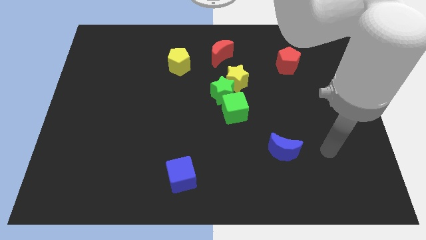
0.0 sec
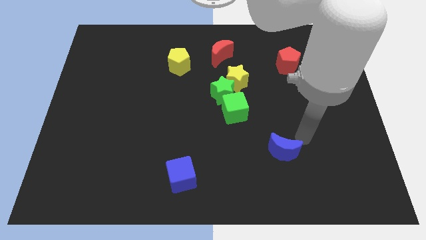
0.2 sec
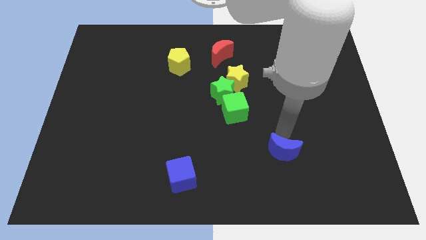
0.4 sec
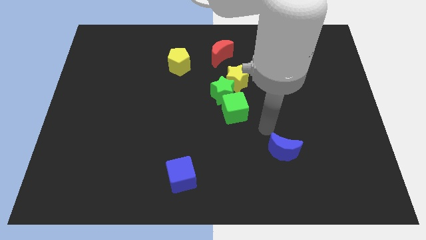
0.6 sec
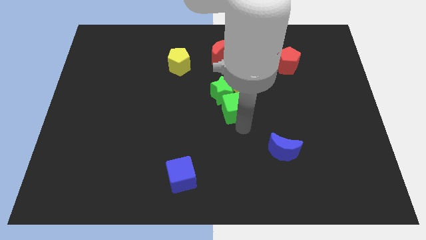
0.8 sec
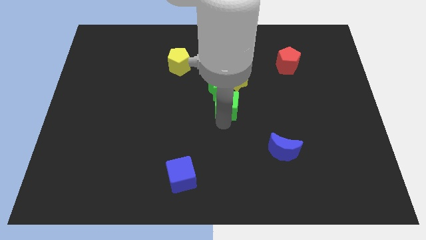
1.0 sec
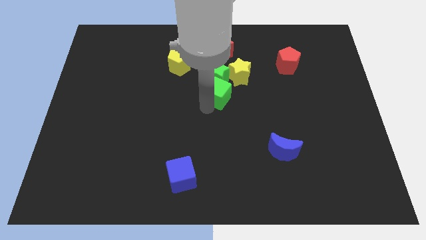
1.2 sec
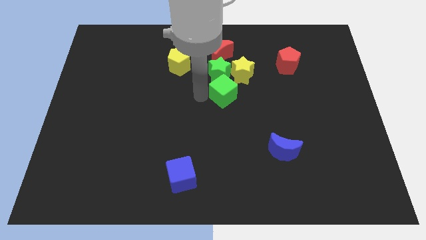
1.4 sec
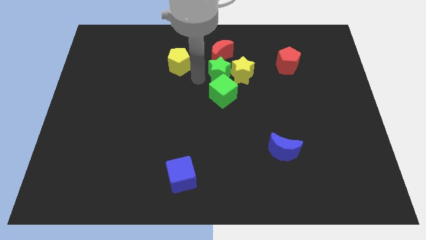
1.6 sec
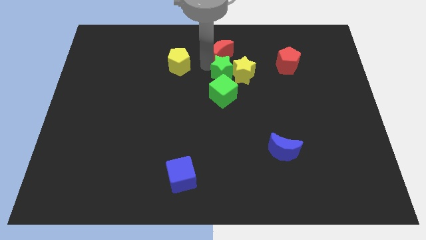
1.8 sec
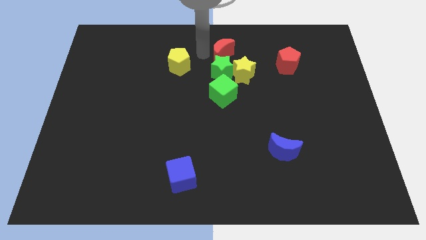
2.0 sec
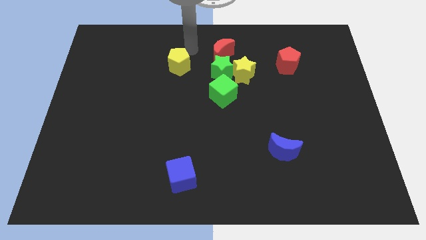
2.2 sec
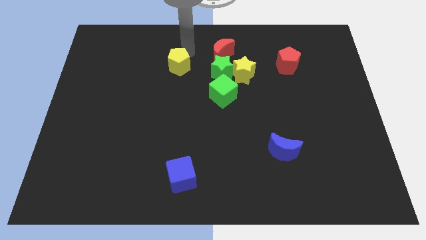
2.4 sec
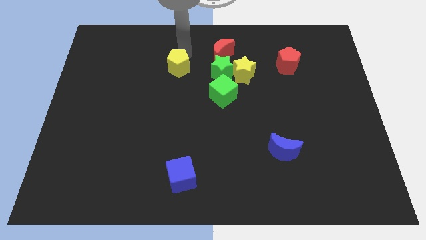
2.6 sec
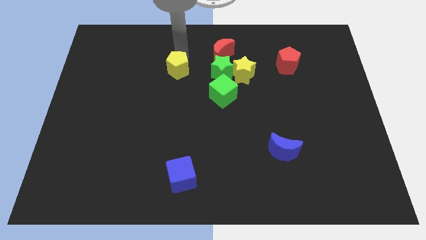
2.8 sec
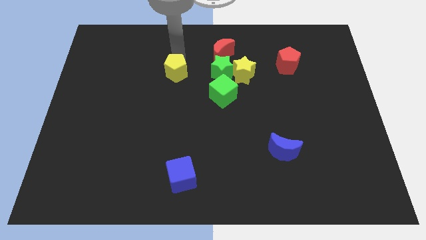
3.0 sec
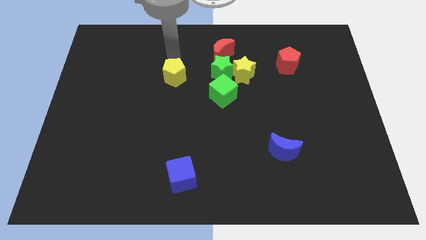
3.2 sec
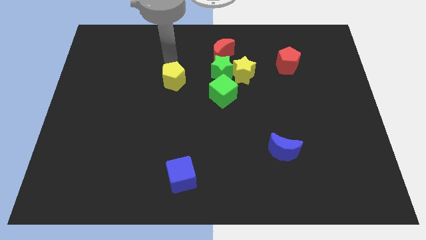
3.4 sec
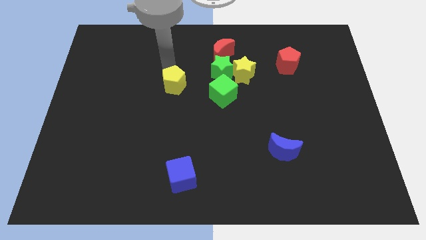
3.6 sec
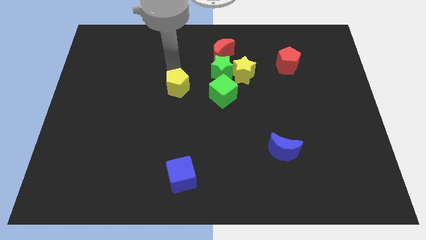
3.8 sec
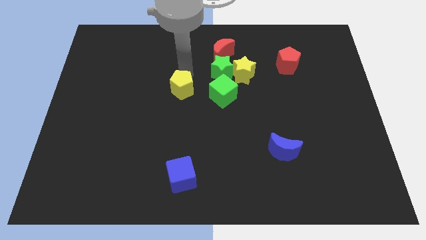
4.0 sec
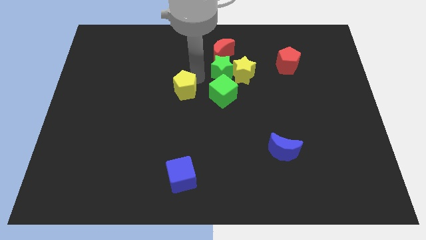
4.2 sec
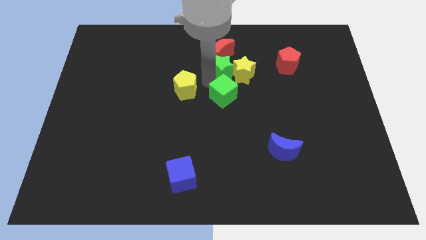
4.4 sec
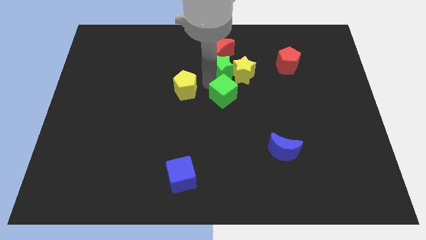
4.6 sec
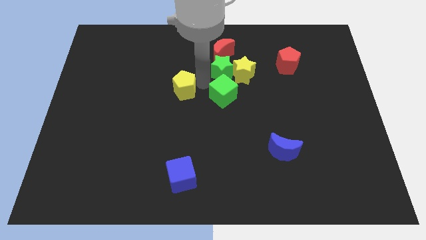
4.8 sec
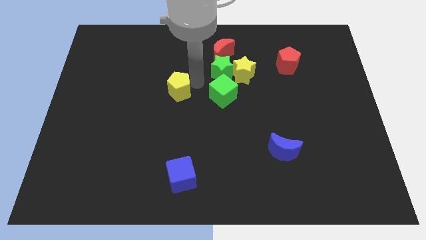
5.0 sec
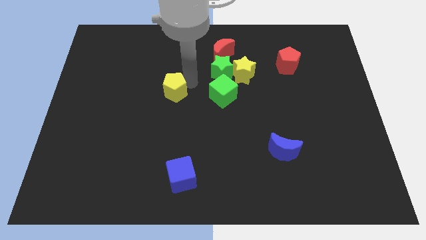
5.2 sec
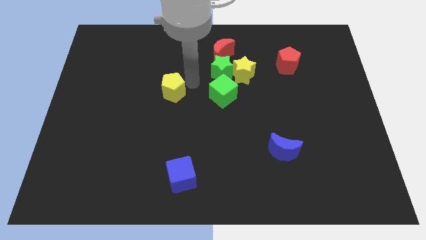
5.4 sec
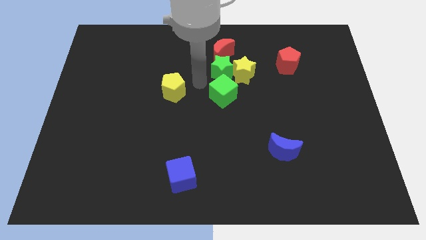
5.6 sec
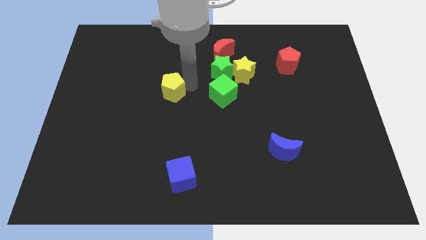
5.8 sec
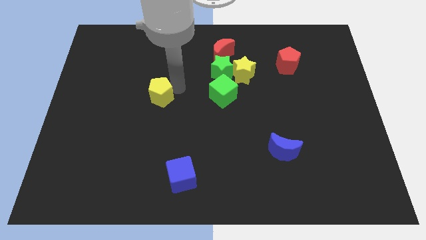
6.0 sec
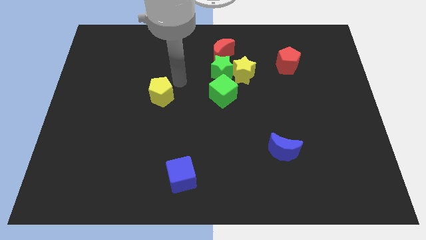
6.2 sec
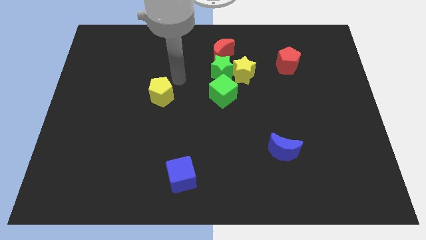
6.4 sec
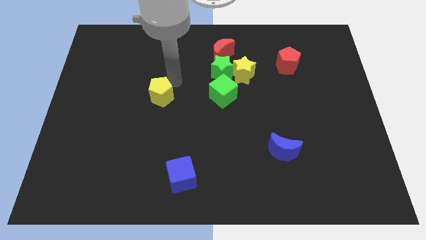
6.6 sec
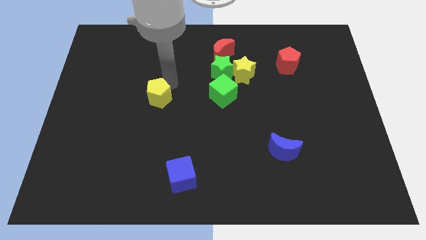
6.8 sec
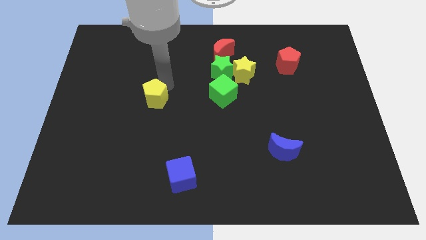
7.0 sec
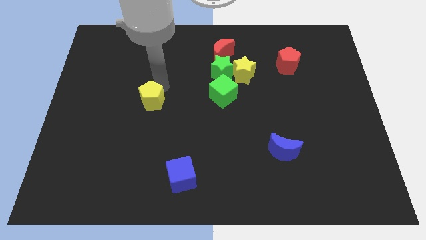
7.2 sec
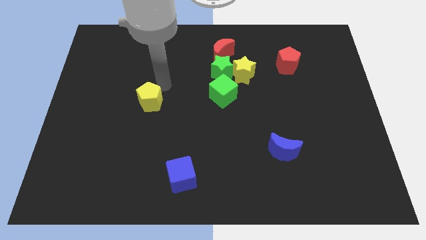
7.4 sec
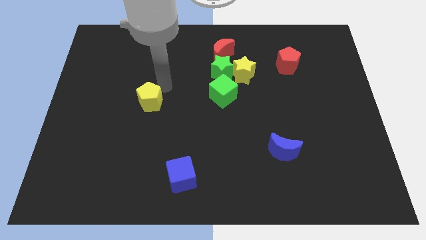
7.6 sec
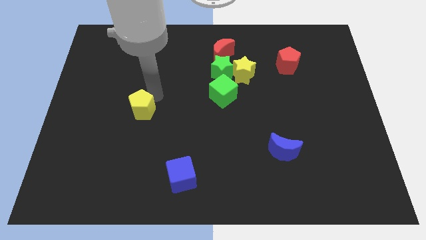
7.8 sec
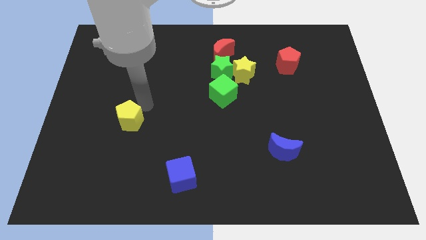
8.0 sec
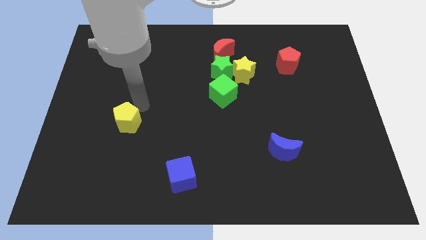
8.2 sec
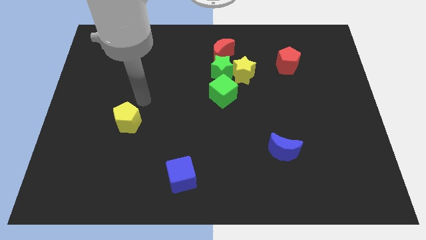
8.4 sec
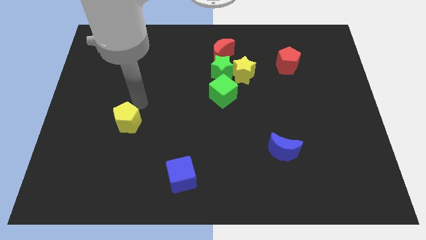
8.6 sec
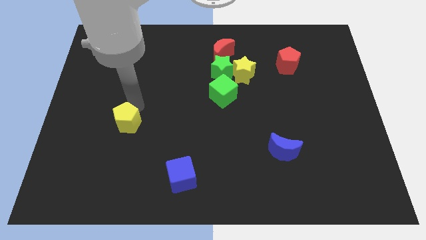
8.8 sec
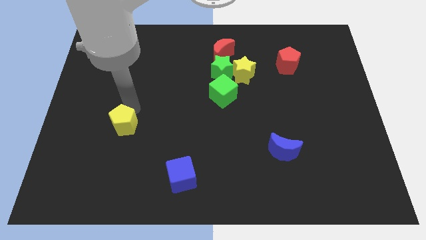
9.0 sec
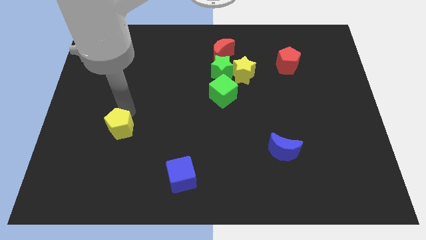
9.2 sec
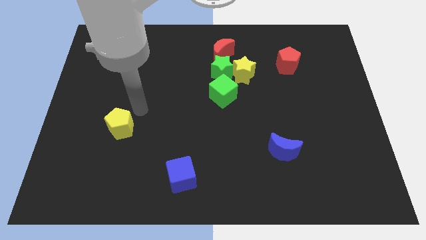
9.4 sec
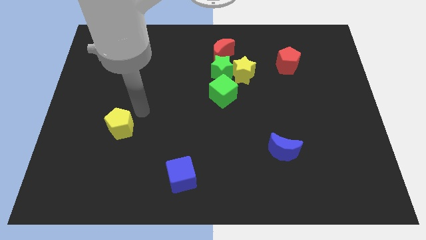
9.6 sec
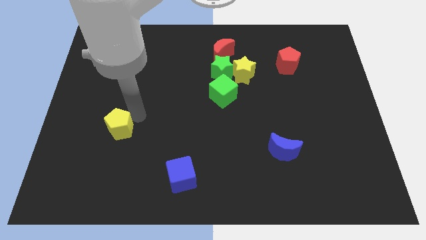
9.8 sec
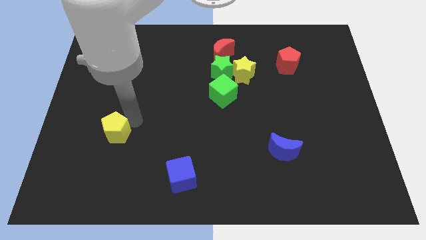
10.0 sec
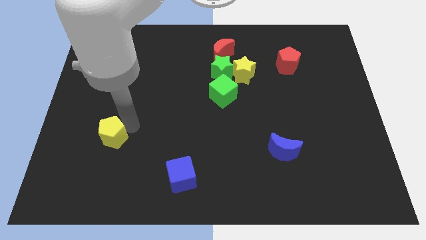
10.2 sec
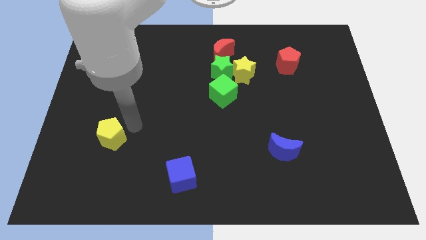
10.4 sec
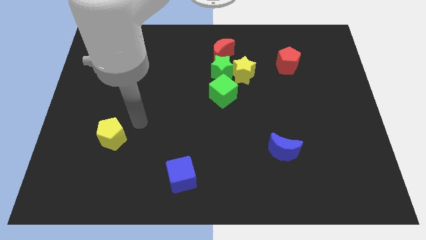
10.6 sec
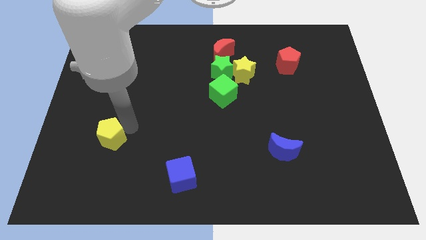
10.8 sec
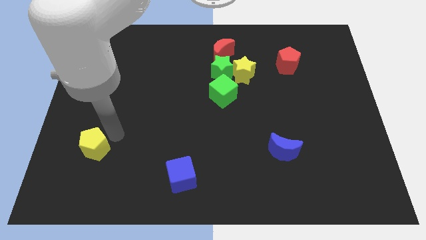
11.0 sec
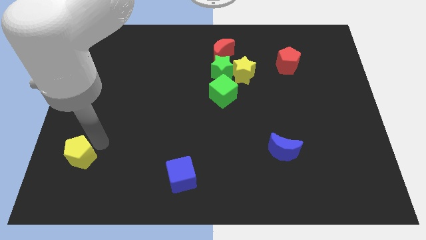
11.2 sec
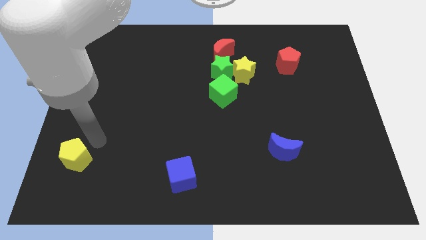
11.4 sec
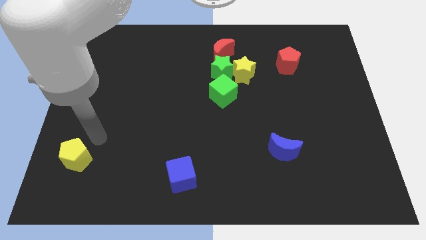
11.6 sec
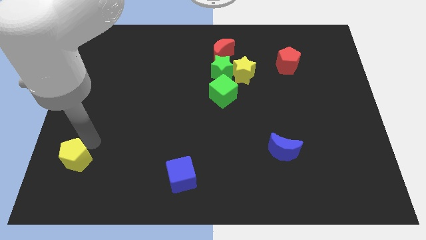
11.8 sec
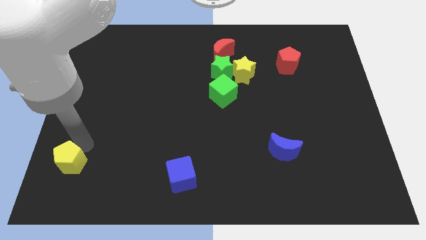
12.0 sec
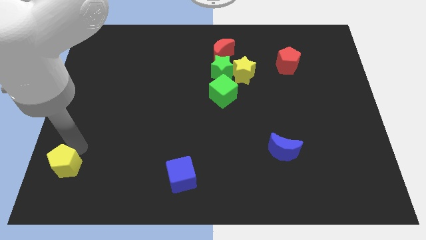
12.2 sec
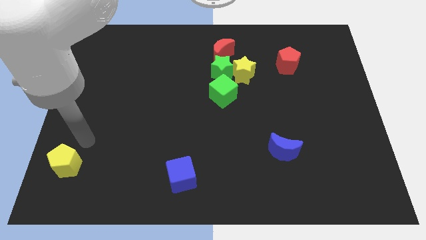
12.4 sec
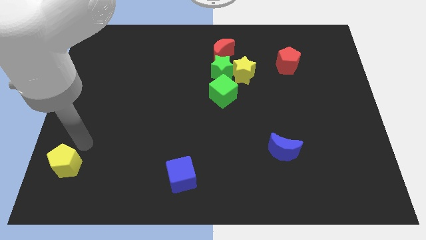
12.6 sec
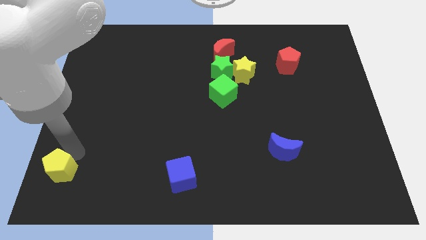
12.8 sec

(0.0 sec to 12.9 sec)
move the yellow pentagon to the bottom left
